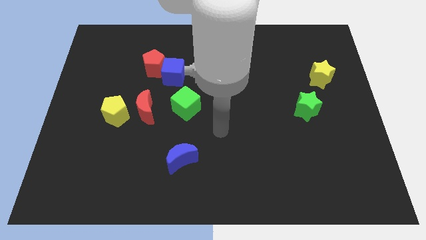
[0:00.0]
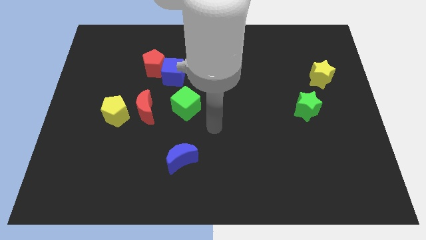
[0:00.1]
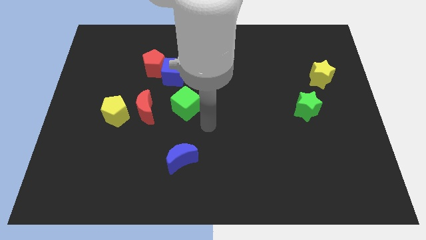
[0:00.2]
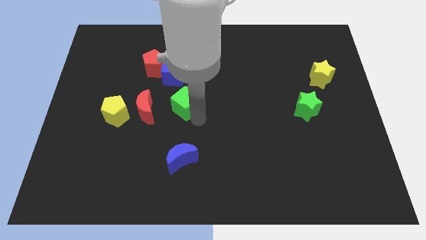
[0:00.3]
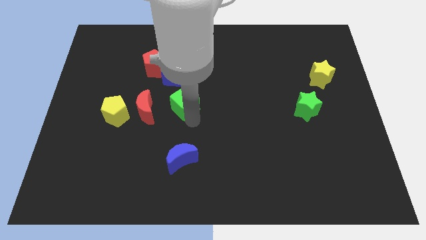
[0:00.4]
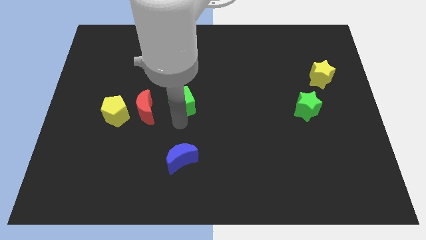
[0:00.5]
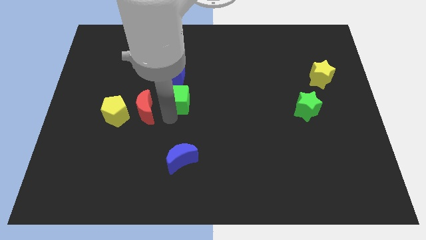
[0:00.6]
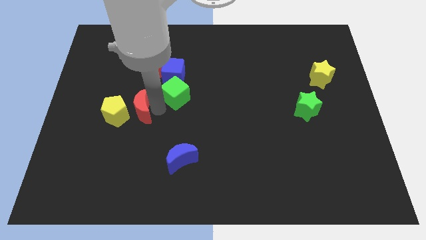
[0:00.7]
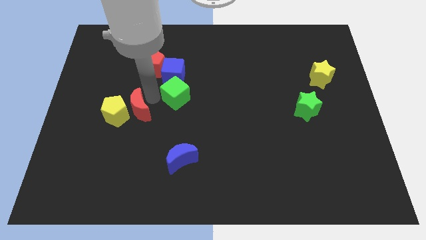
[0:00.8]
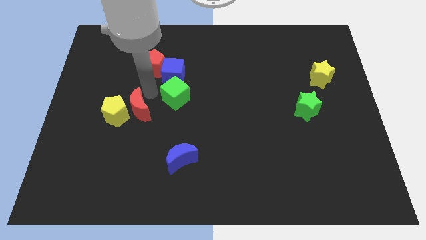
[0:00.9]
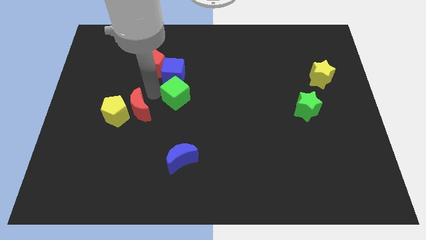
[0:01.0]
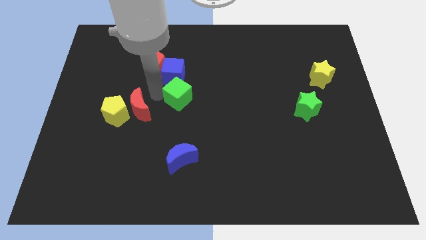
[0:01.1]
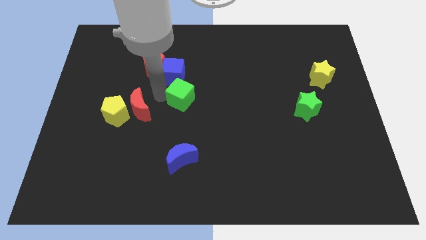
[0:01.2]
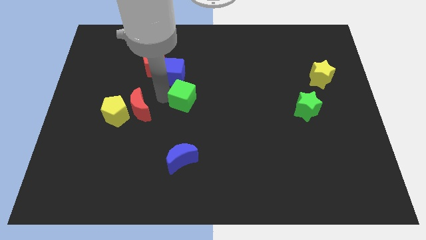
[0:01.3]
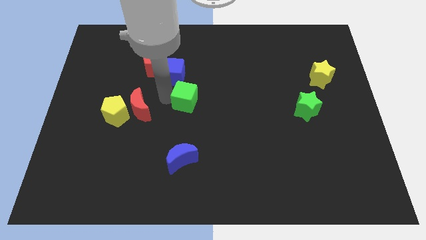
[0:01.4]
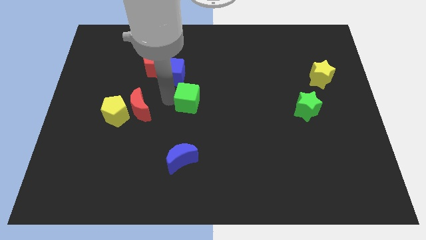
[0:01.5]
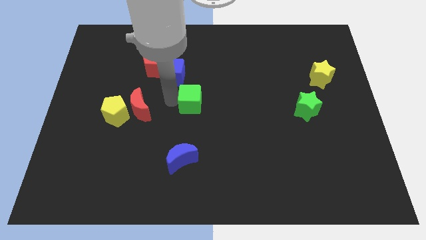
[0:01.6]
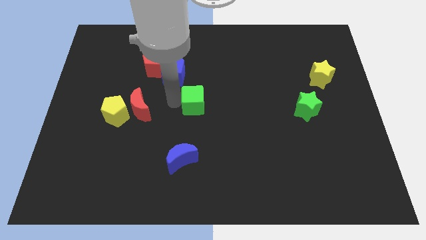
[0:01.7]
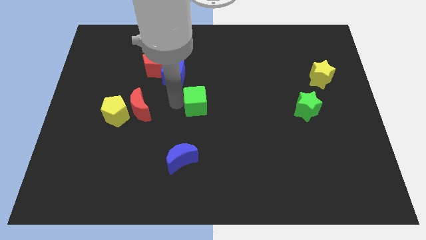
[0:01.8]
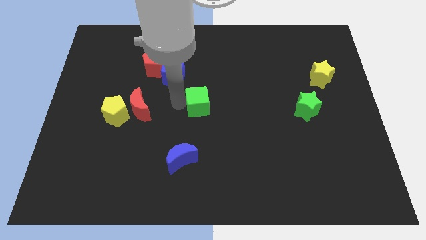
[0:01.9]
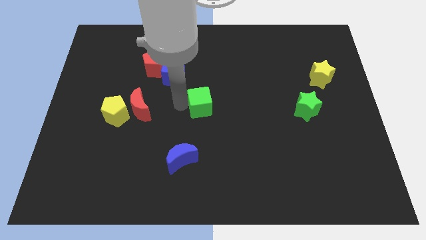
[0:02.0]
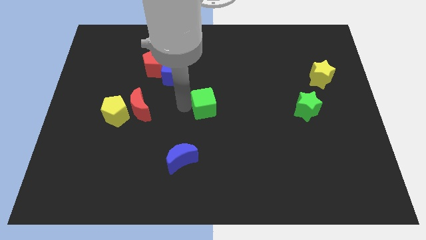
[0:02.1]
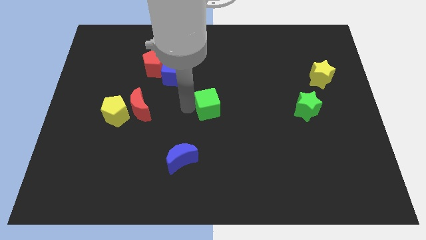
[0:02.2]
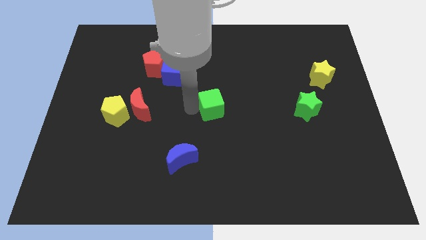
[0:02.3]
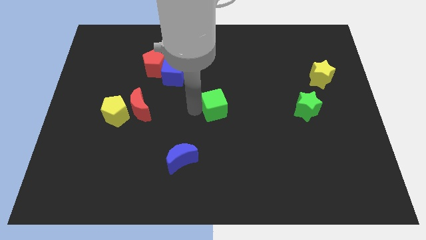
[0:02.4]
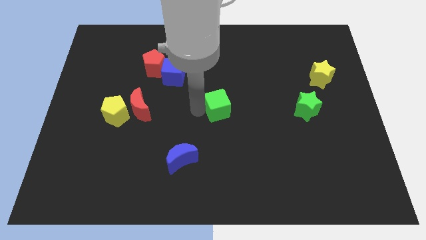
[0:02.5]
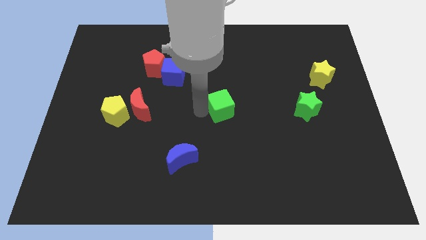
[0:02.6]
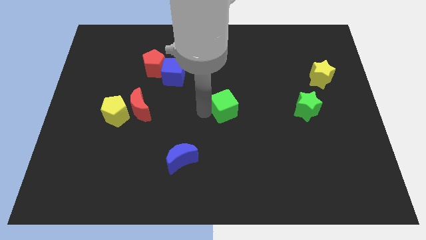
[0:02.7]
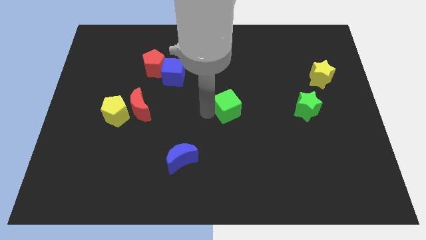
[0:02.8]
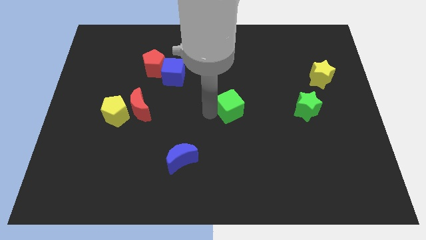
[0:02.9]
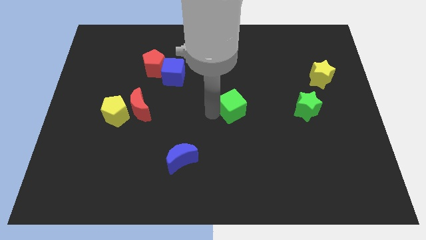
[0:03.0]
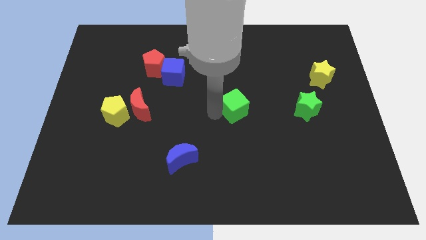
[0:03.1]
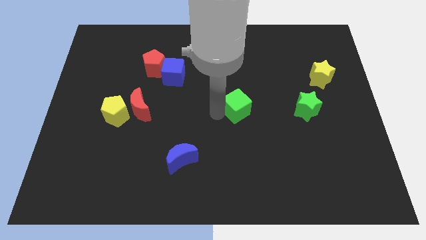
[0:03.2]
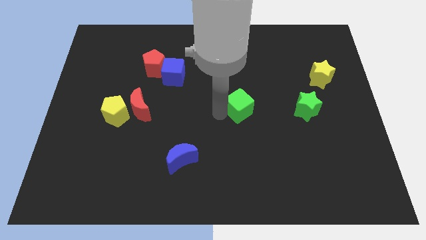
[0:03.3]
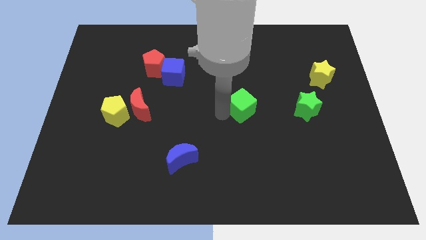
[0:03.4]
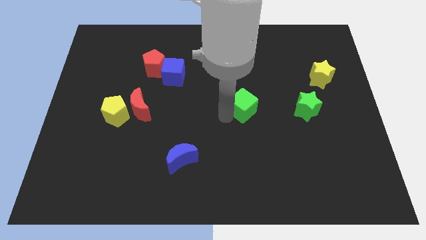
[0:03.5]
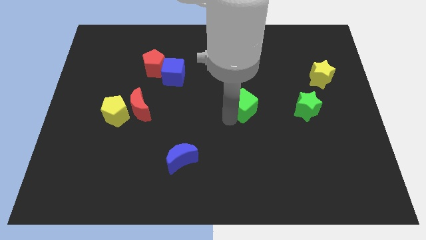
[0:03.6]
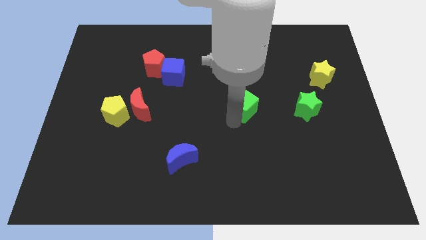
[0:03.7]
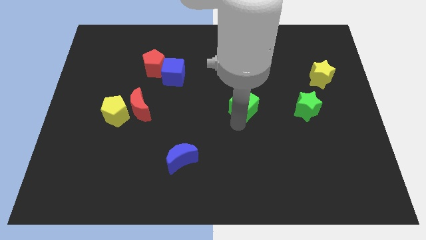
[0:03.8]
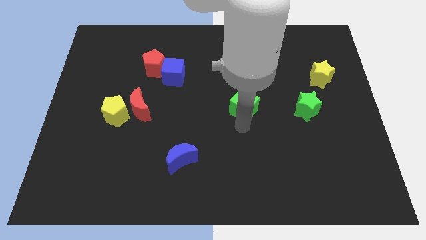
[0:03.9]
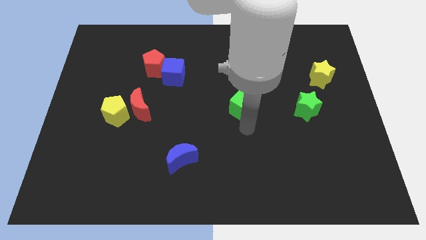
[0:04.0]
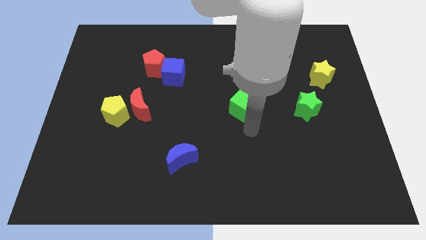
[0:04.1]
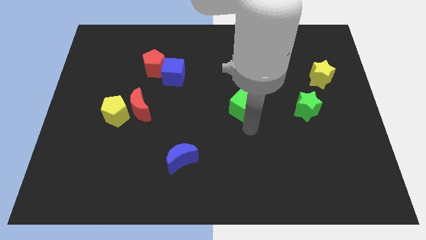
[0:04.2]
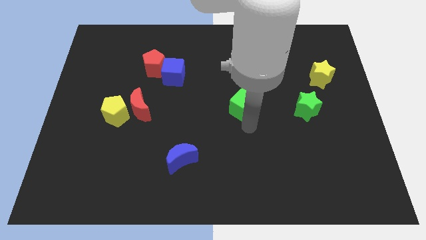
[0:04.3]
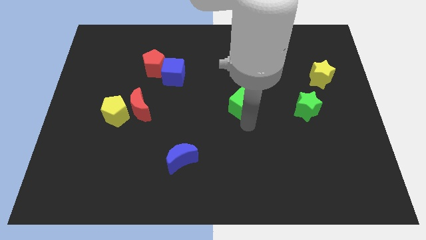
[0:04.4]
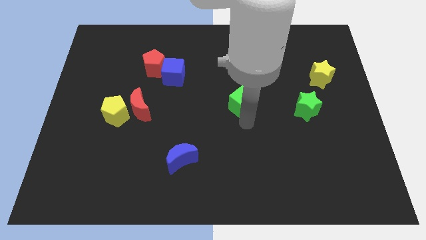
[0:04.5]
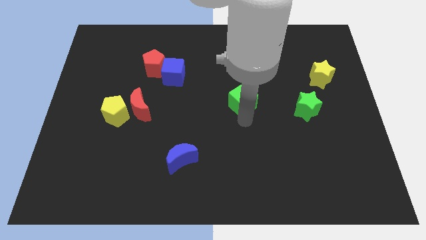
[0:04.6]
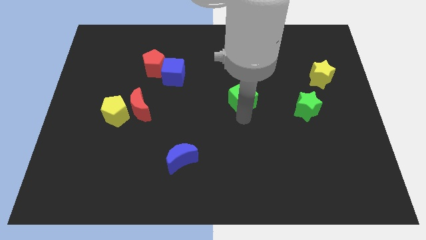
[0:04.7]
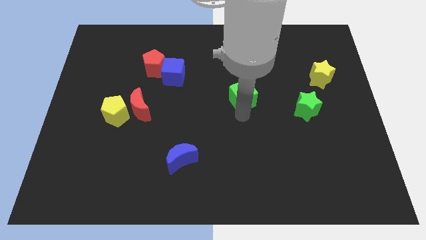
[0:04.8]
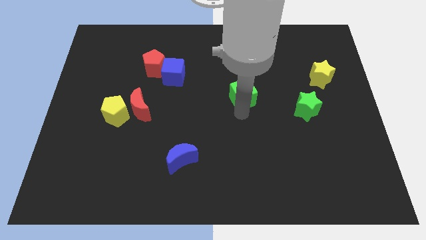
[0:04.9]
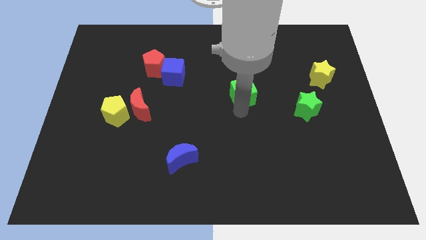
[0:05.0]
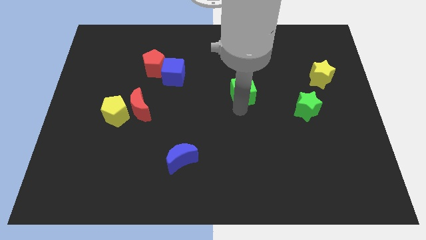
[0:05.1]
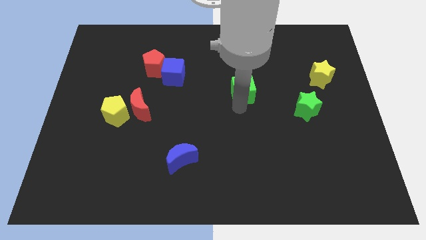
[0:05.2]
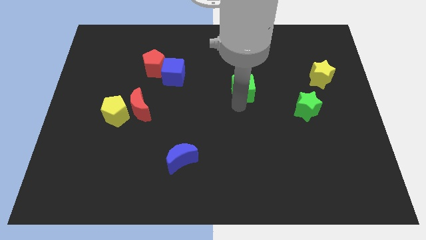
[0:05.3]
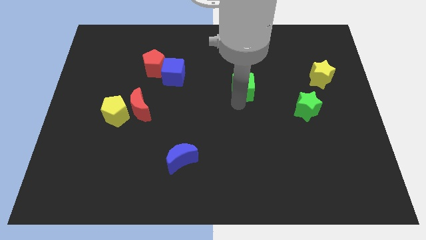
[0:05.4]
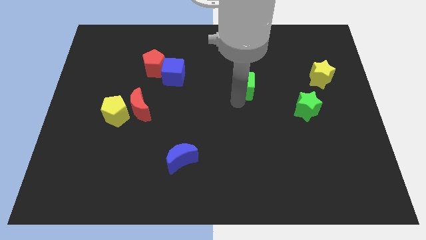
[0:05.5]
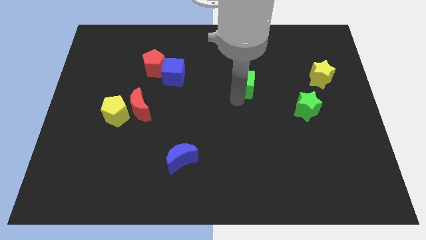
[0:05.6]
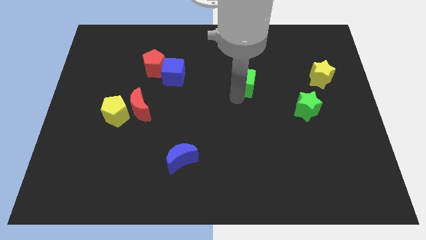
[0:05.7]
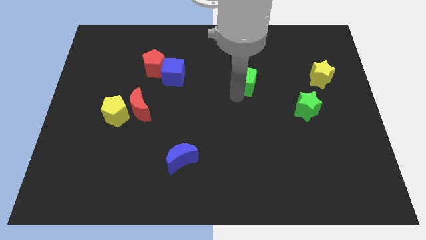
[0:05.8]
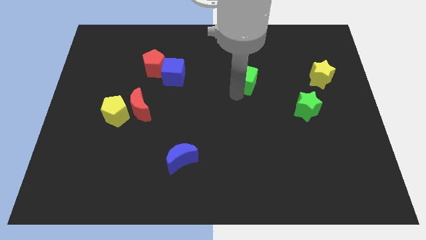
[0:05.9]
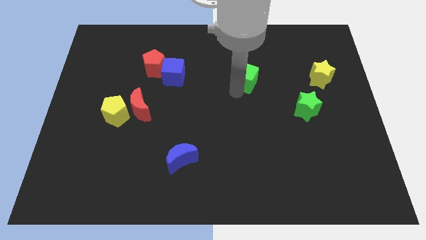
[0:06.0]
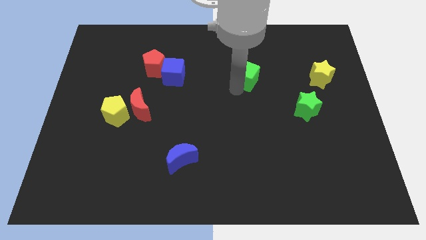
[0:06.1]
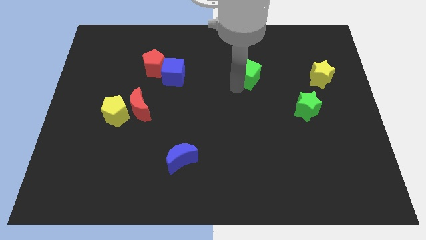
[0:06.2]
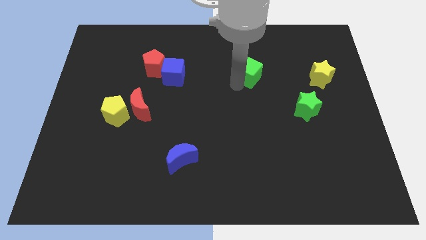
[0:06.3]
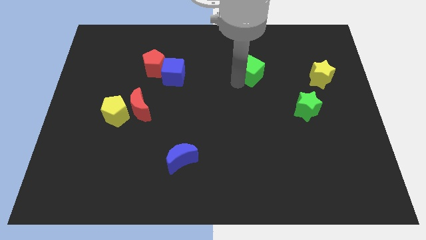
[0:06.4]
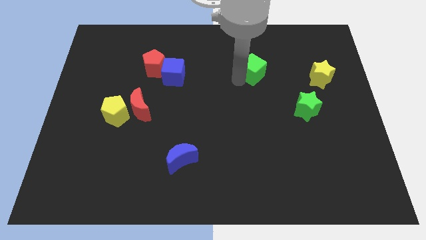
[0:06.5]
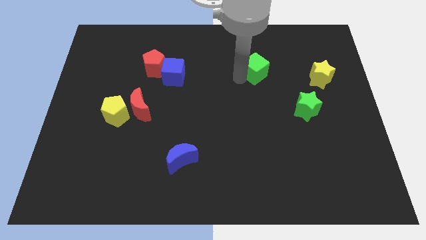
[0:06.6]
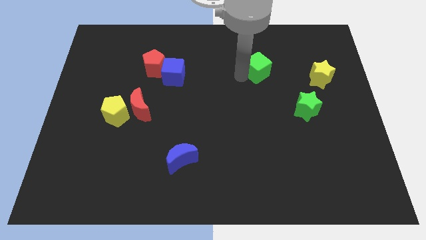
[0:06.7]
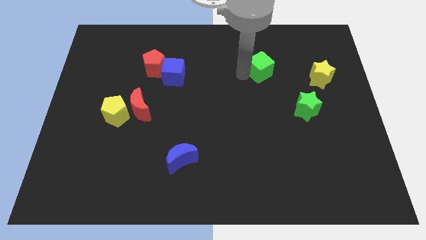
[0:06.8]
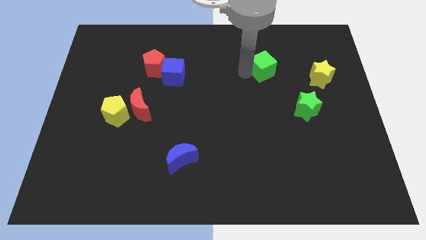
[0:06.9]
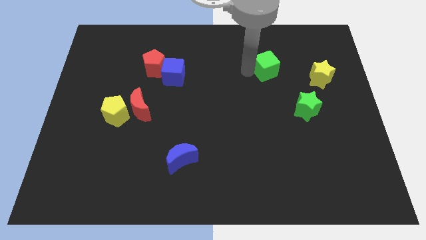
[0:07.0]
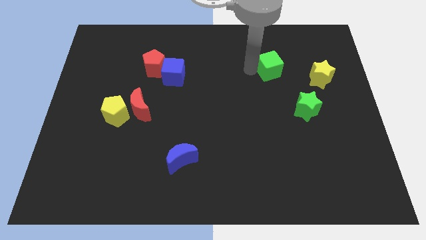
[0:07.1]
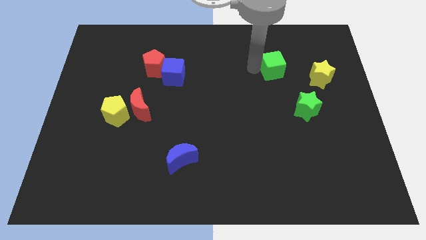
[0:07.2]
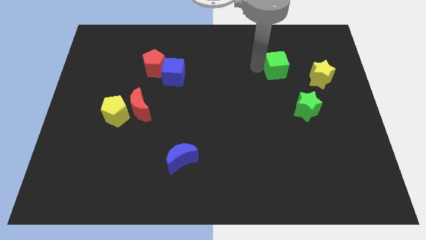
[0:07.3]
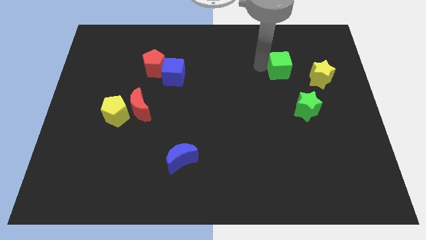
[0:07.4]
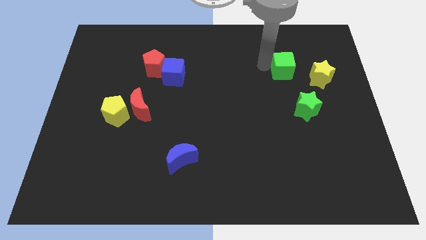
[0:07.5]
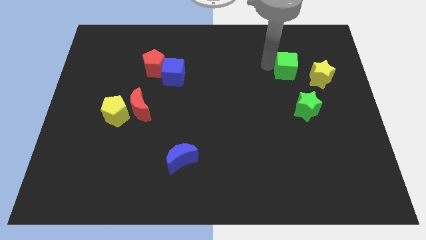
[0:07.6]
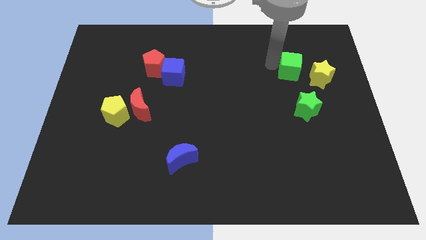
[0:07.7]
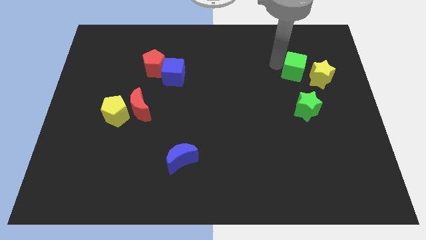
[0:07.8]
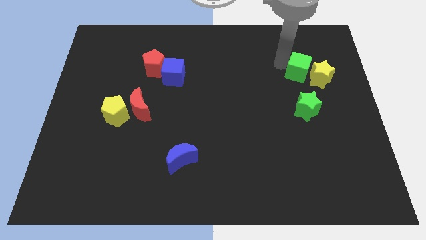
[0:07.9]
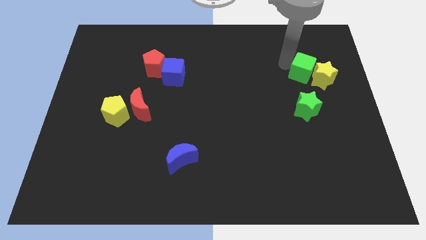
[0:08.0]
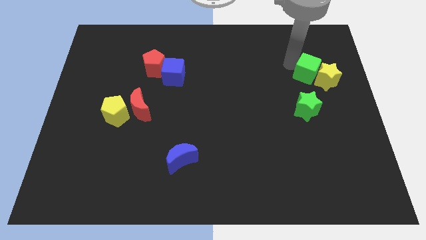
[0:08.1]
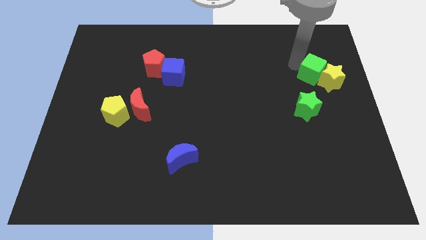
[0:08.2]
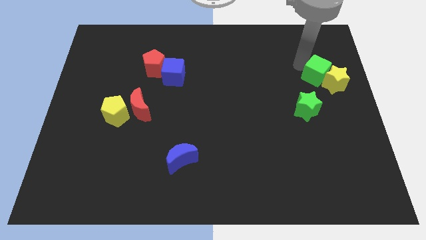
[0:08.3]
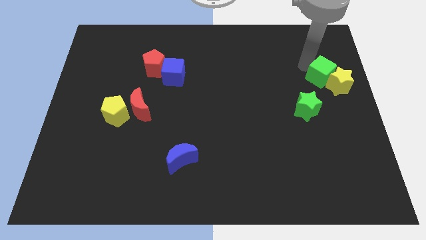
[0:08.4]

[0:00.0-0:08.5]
put the green cube diagonally up and to the right of the green star
